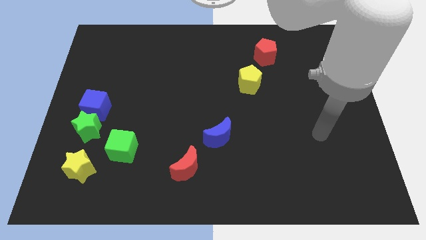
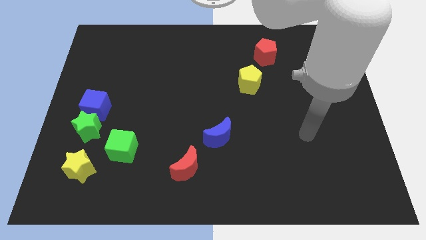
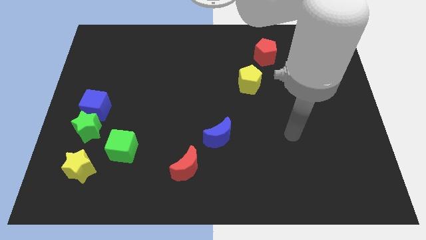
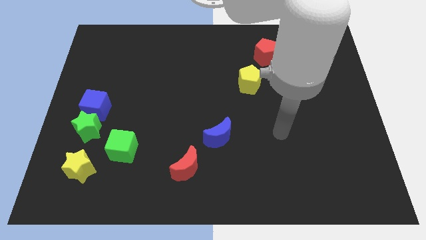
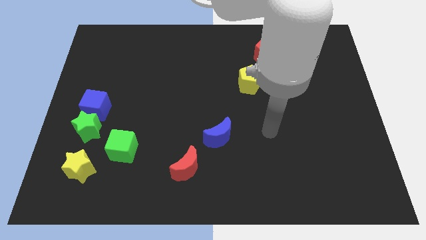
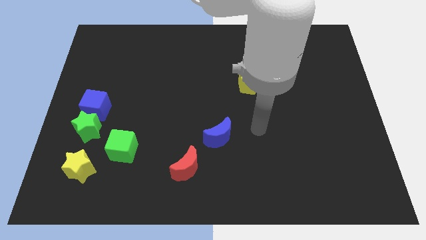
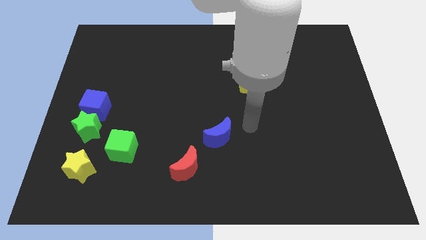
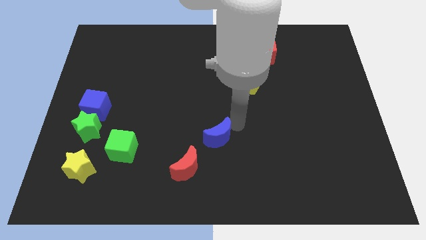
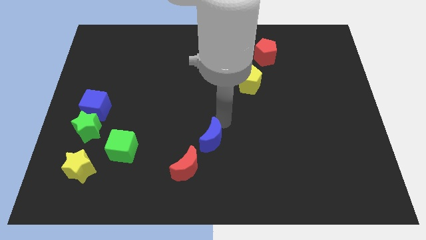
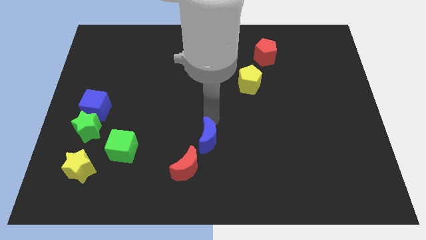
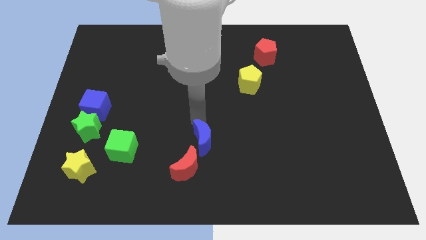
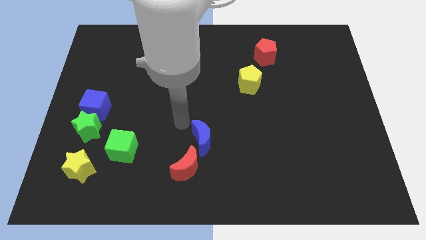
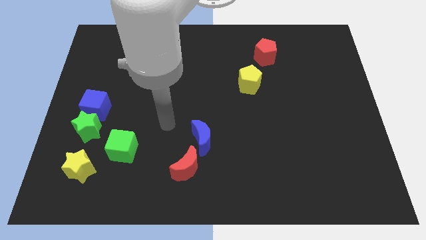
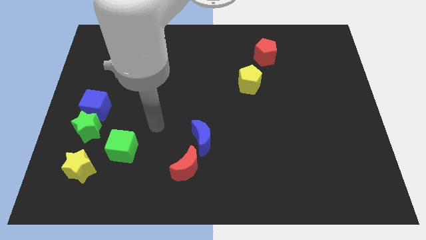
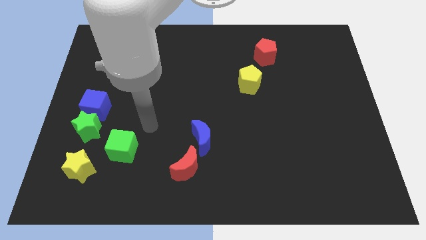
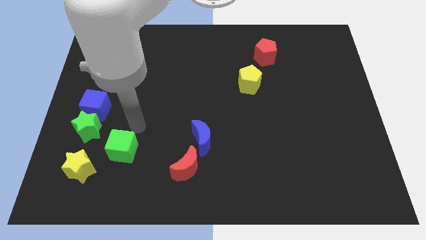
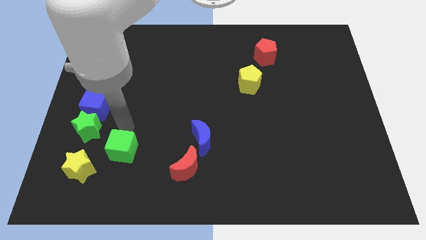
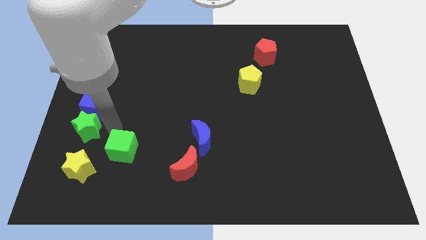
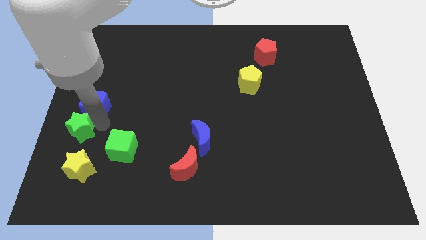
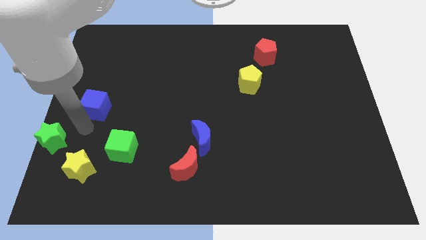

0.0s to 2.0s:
separate the blue cube from the green star

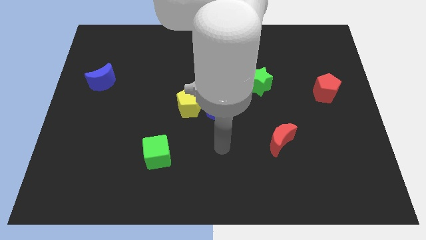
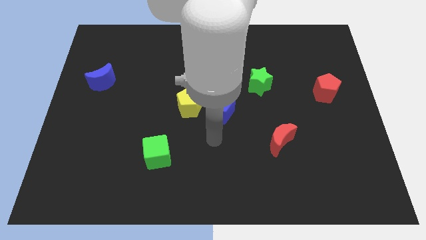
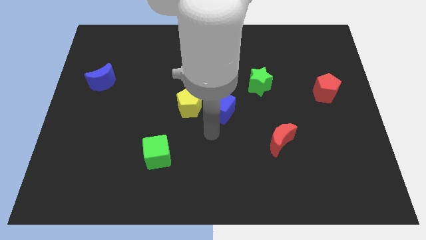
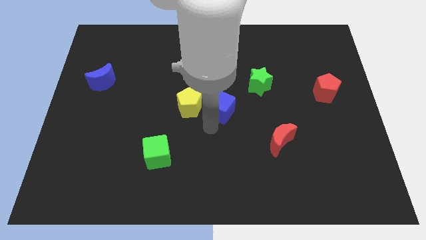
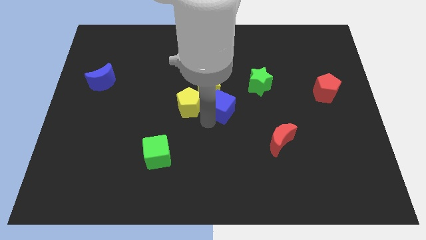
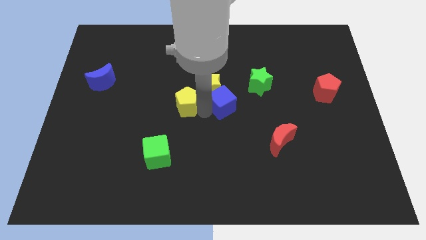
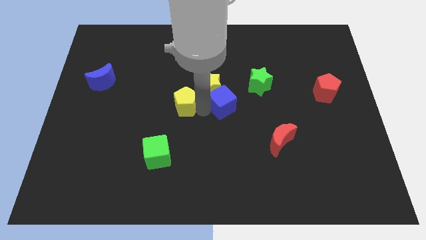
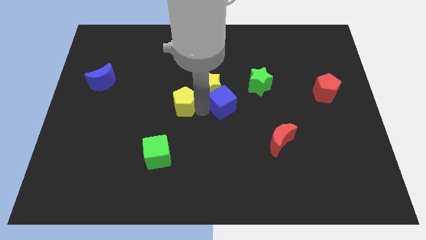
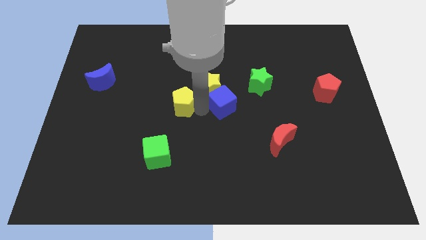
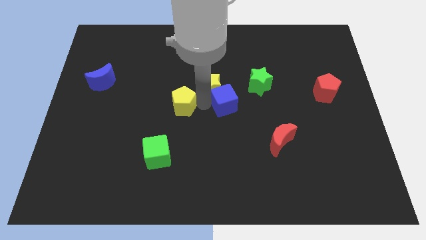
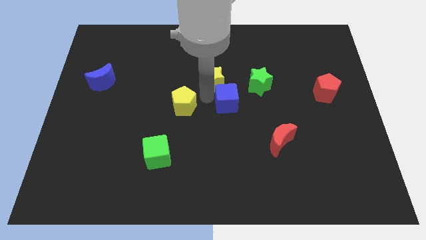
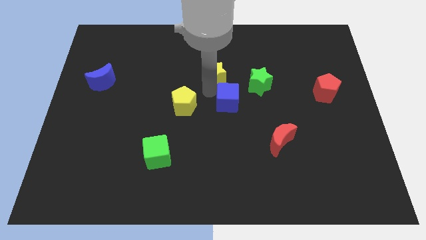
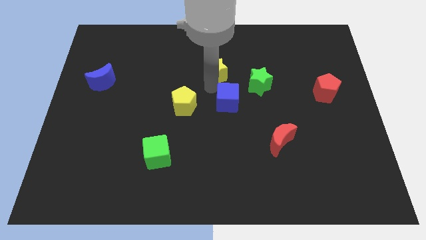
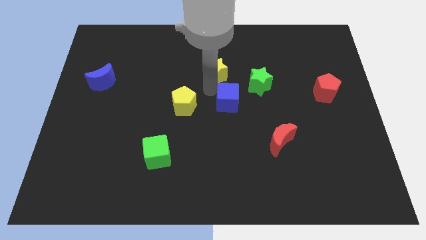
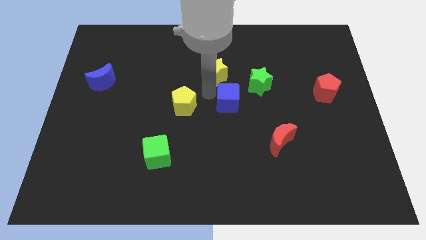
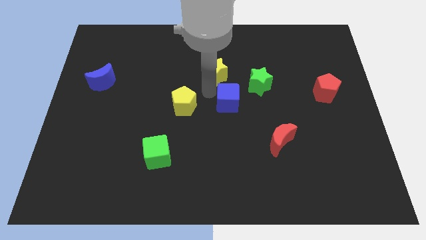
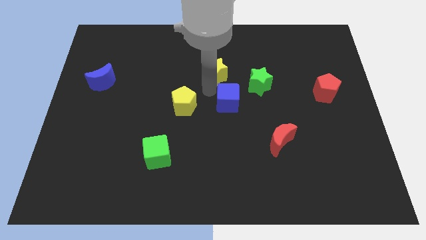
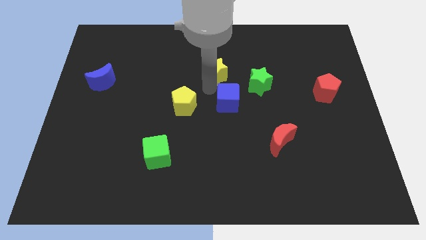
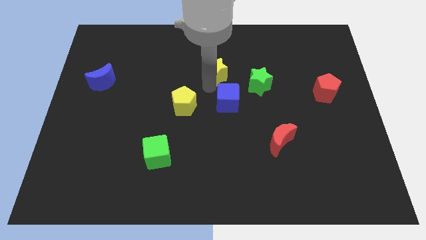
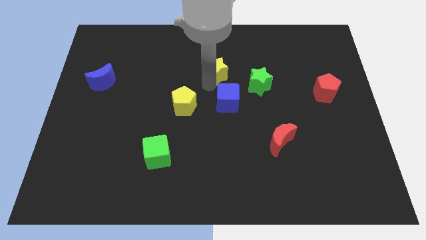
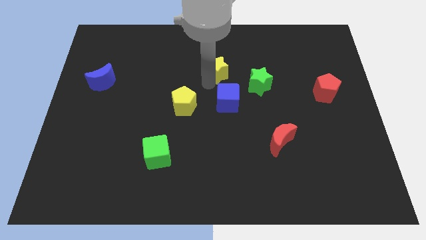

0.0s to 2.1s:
pull the yellow star apart from the blue cube and yellow pentagon

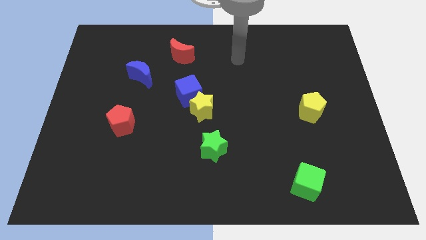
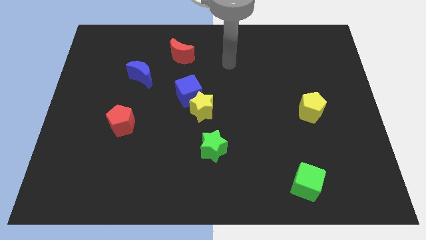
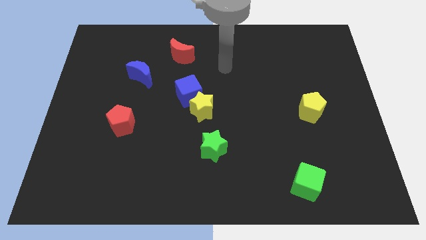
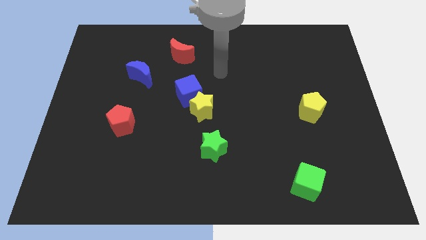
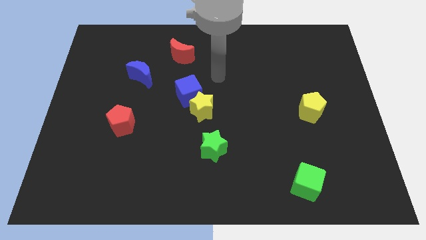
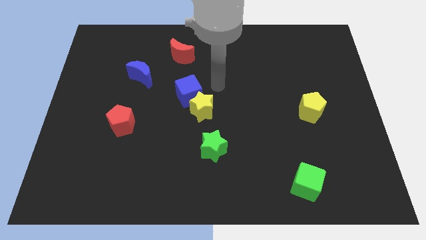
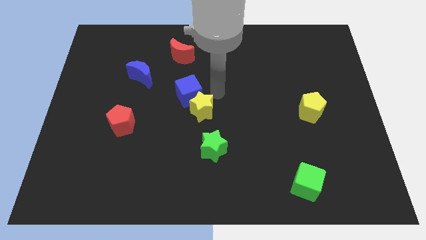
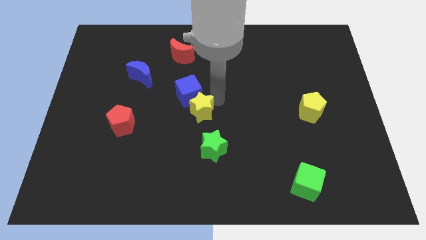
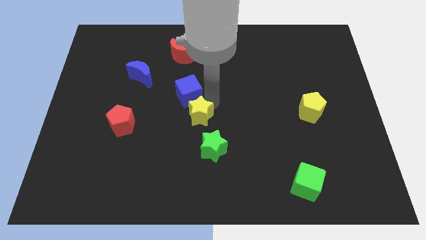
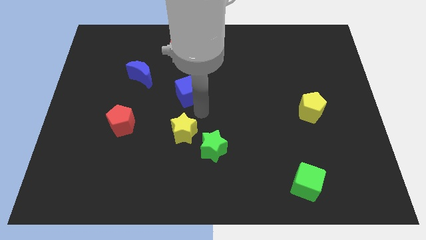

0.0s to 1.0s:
pull the blue cube apart from the yellow star

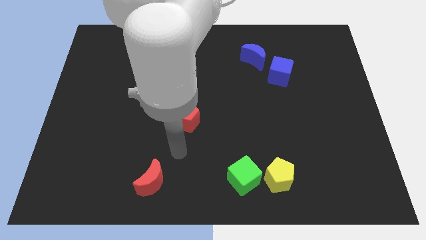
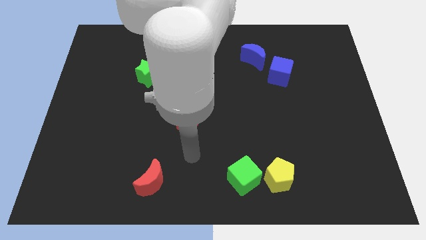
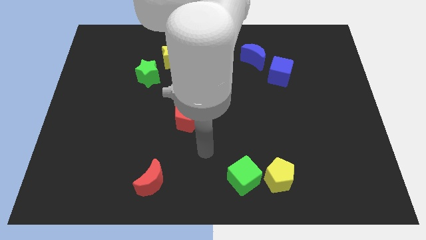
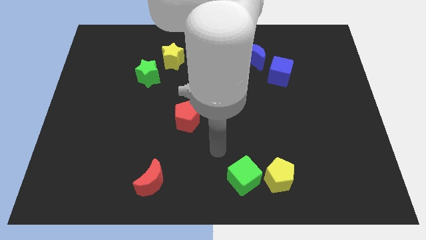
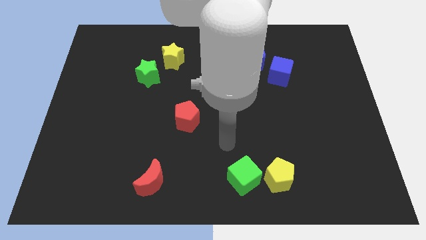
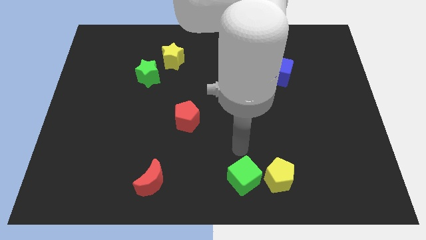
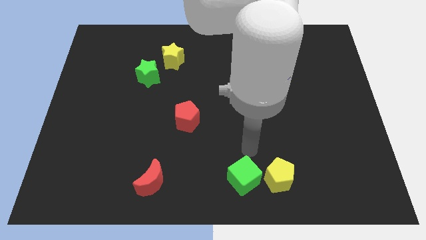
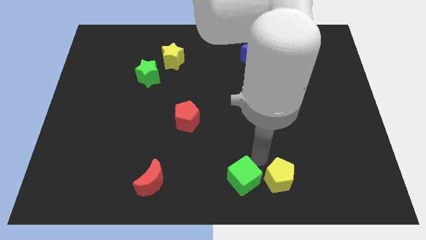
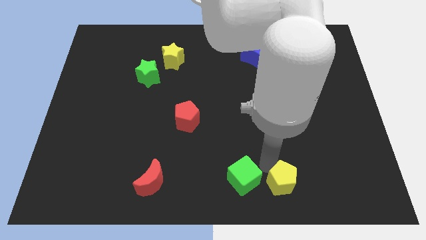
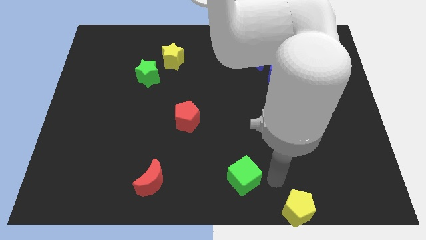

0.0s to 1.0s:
pull the green cube apart from the yellow pentagon

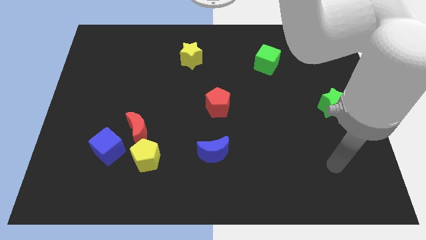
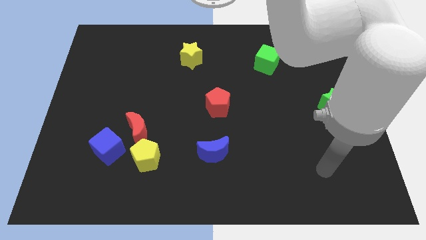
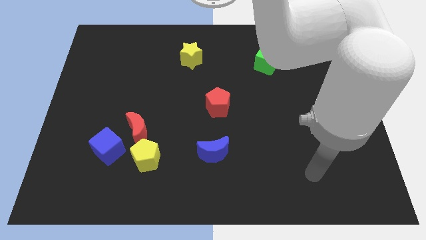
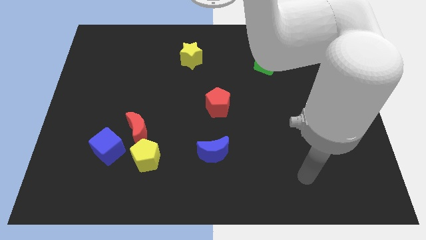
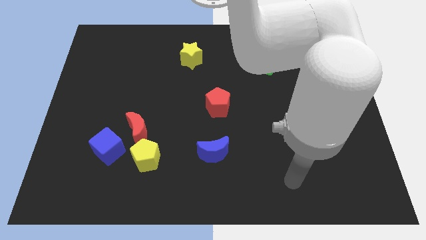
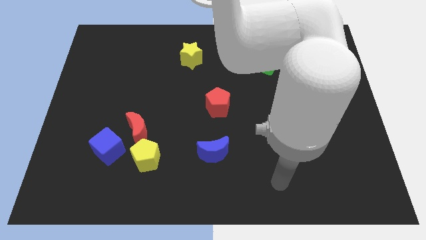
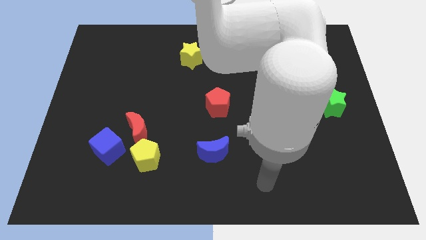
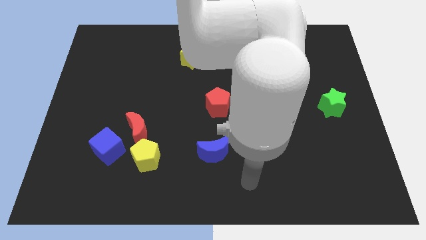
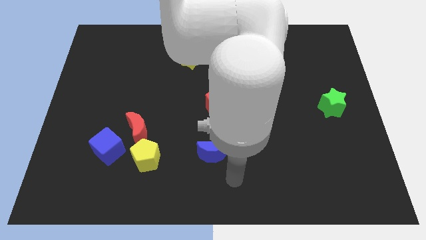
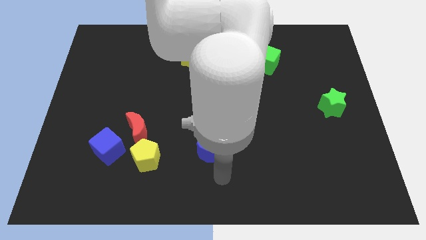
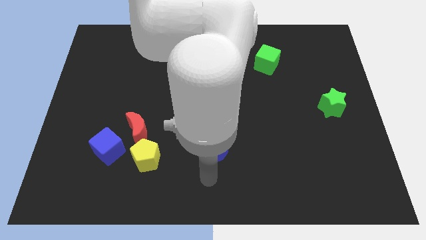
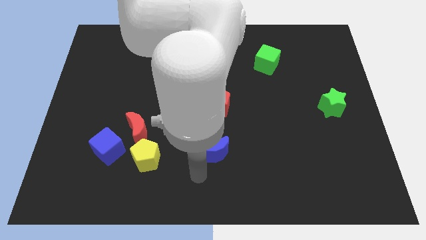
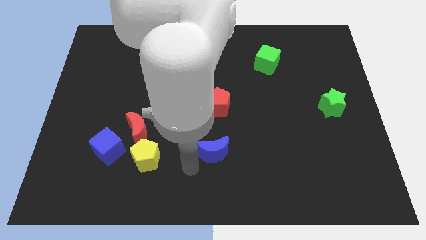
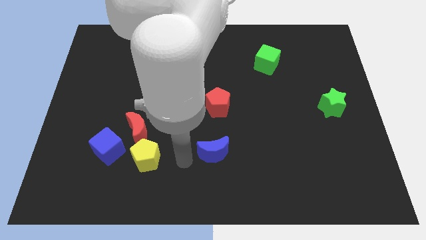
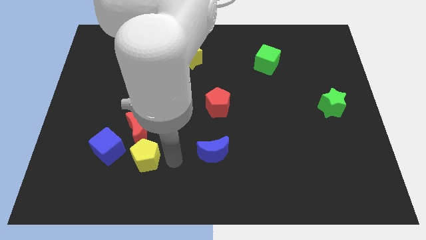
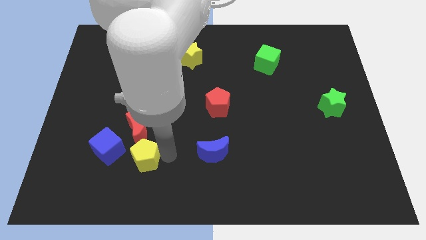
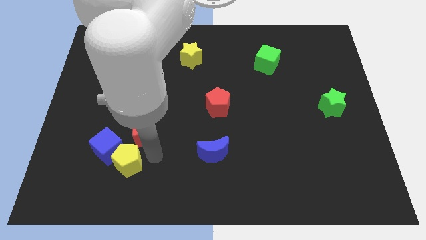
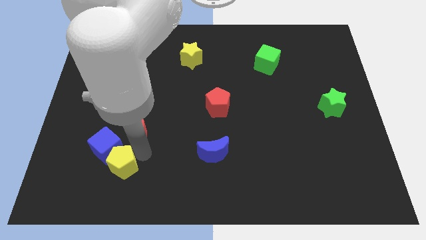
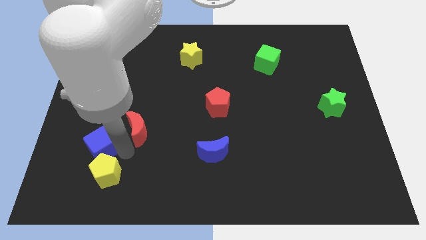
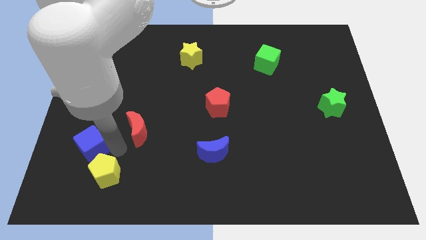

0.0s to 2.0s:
pull the red moon apart from the yellow pentagon and blue cube

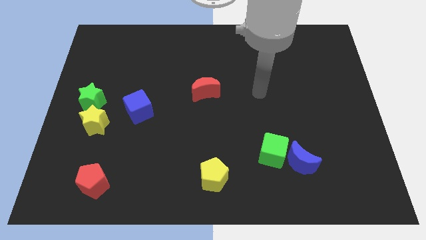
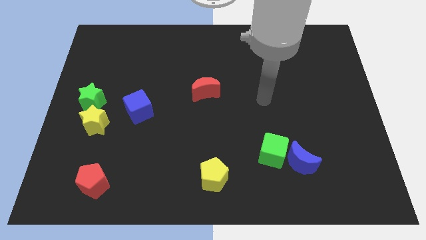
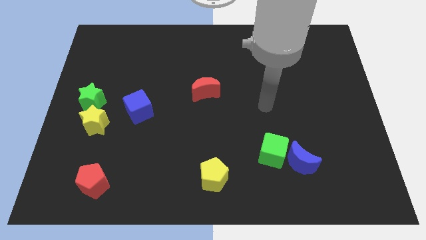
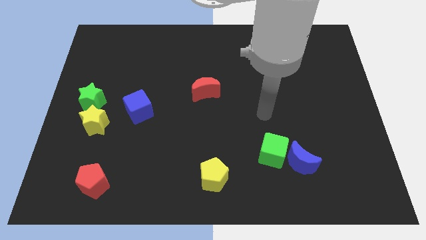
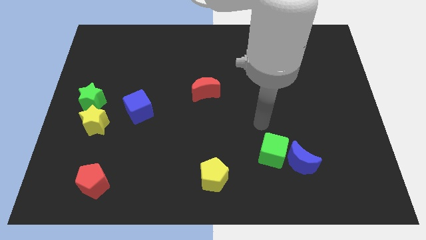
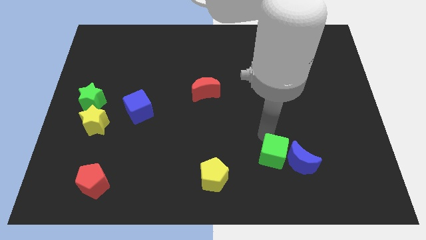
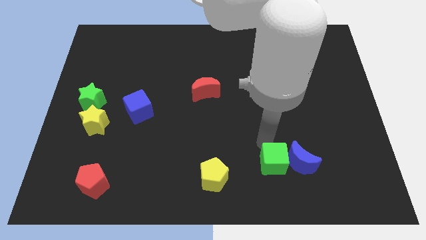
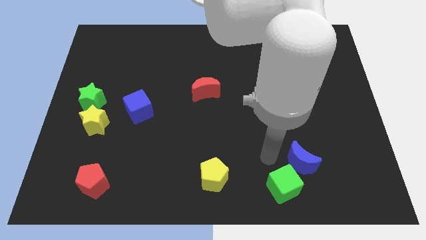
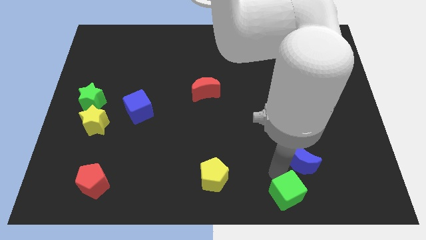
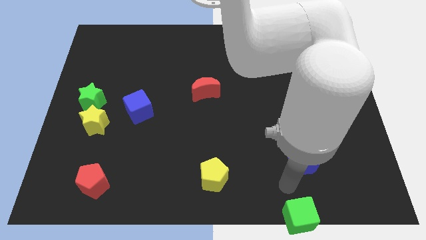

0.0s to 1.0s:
move the blue moon away from the green cube

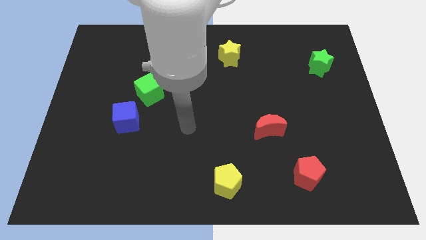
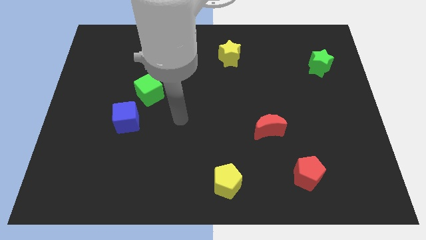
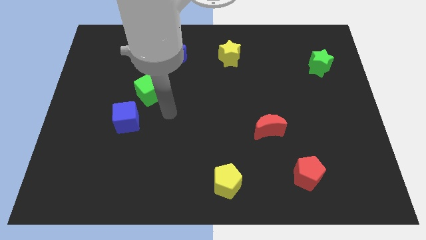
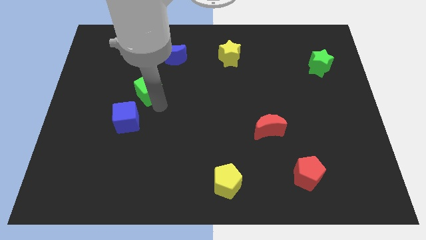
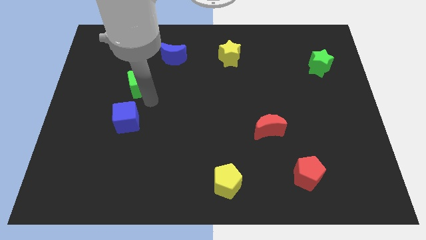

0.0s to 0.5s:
pull the blue cube apart from the green cube
